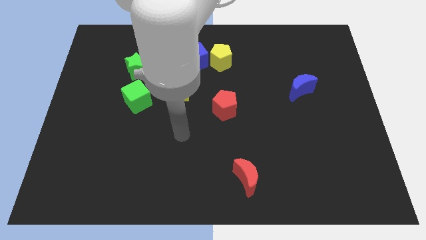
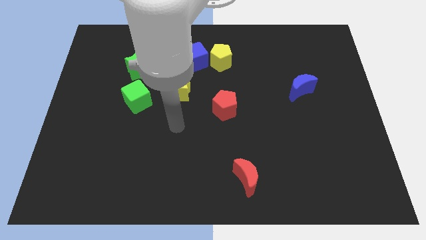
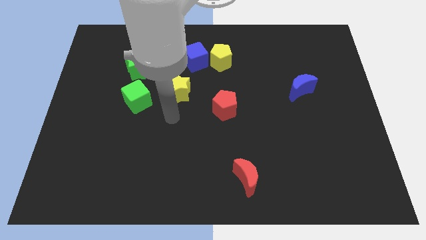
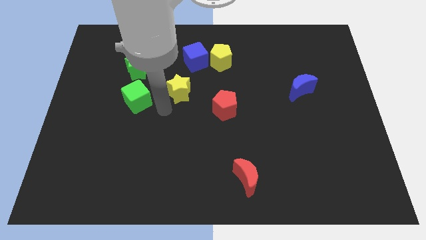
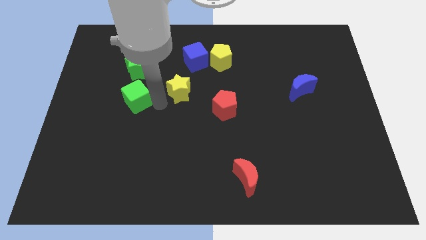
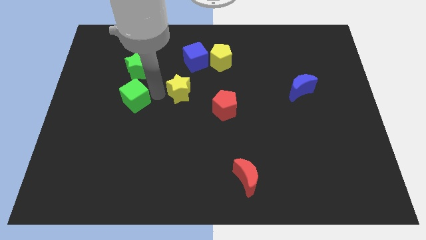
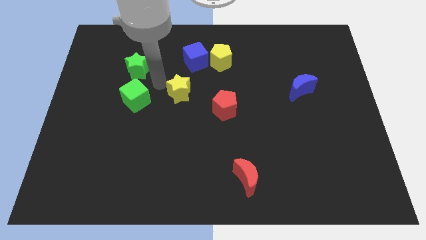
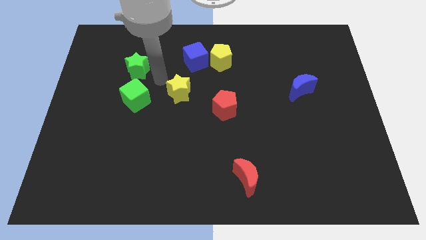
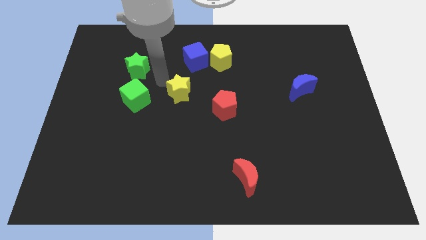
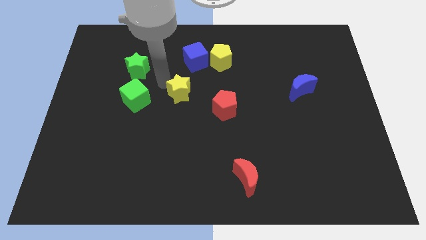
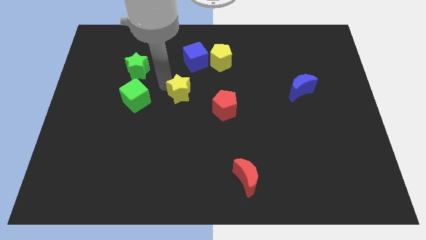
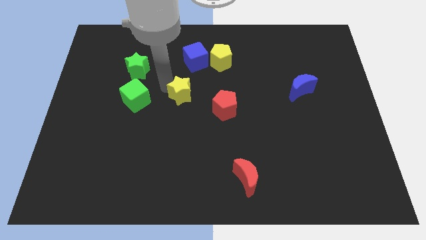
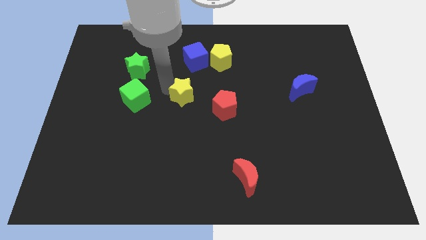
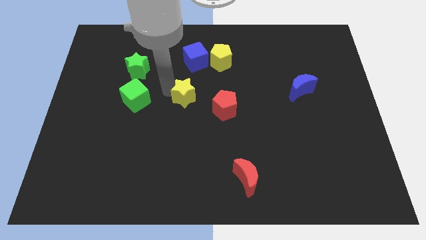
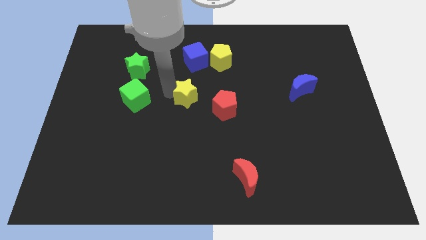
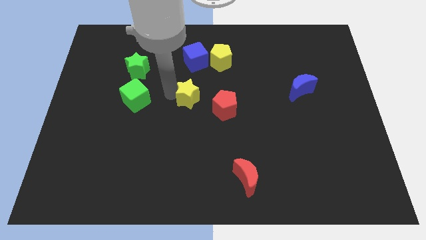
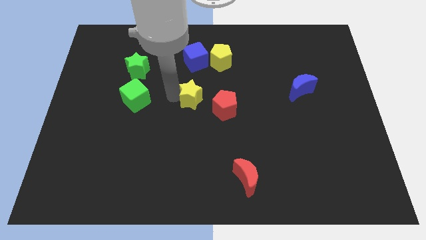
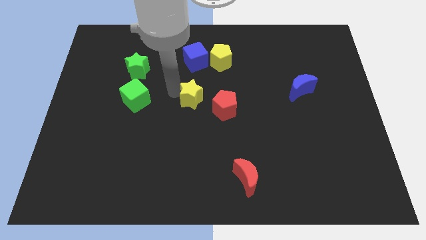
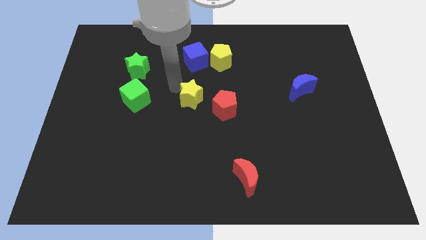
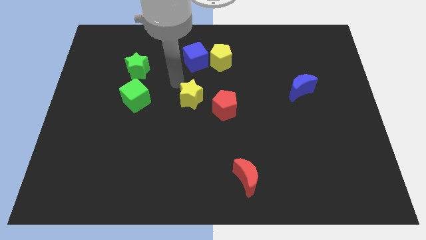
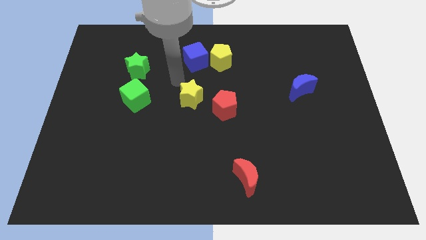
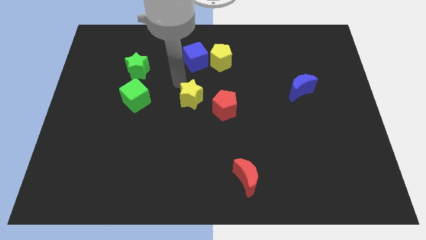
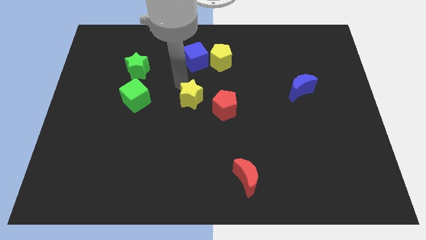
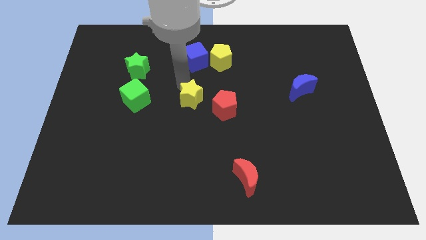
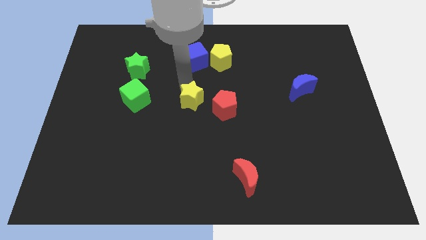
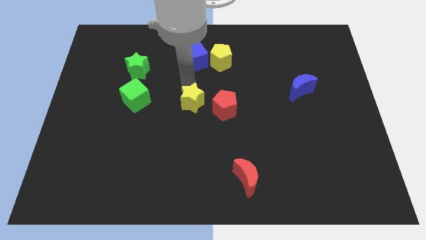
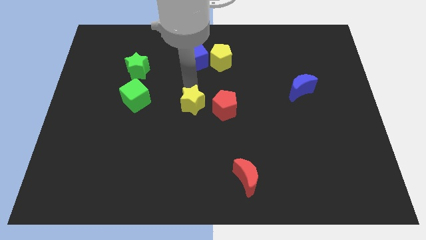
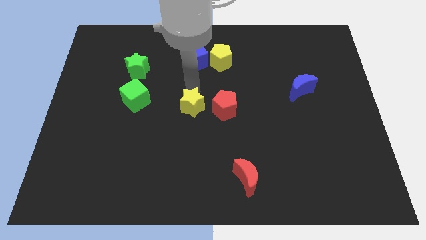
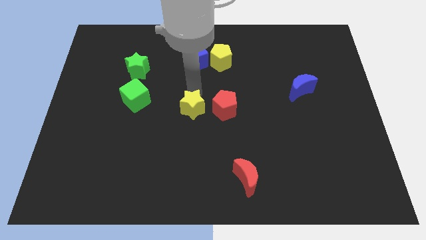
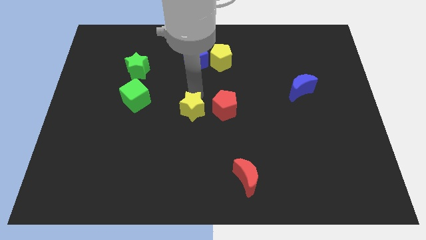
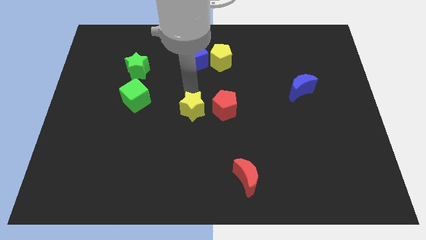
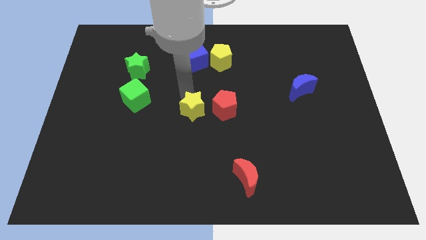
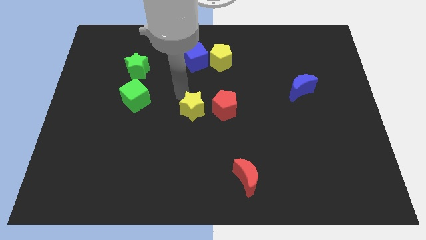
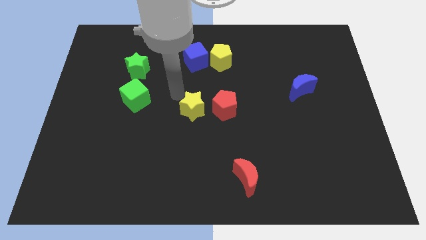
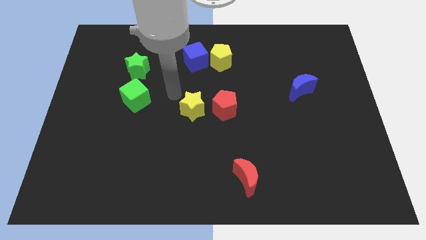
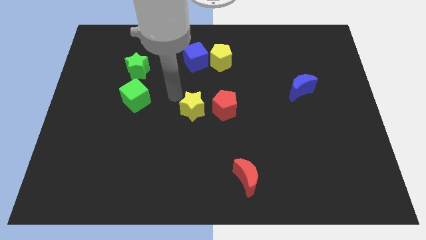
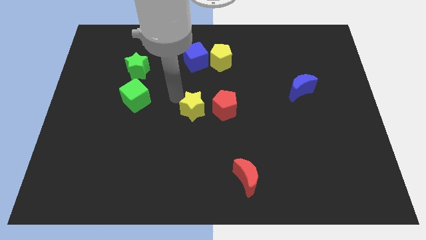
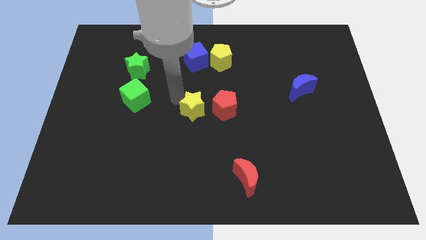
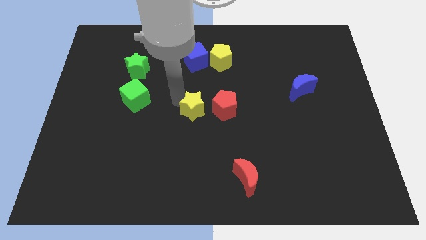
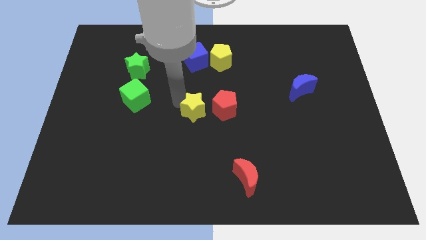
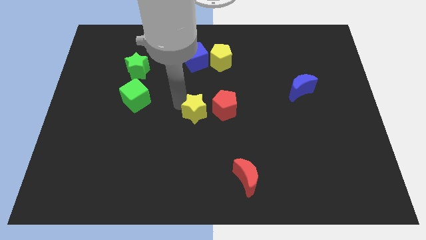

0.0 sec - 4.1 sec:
move the yellow star a little down and then to the right

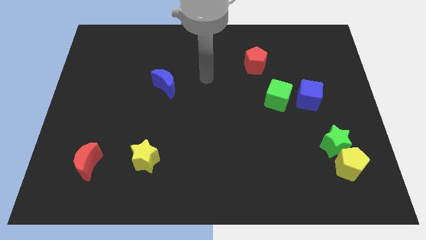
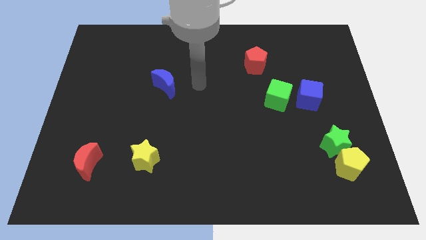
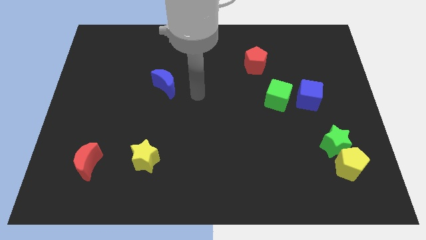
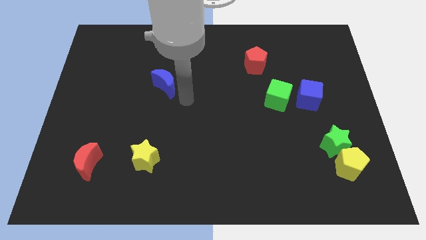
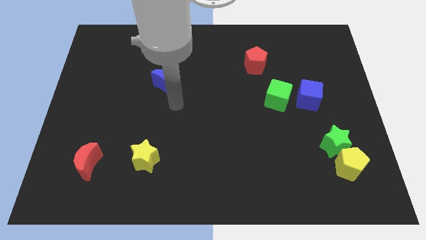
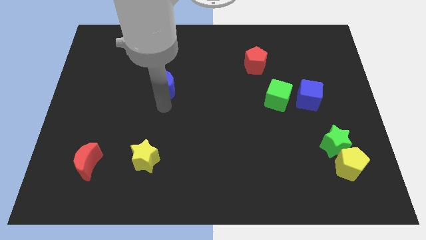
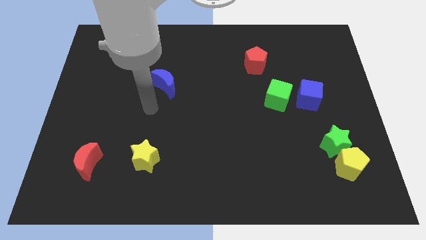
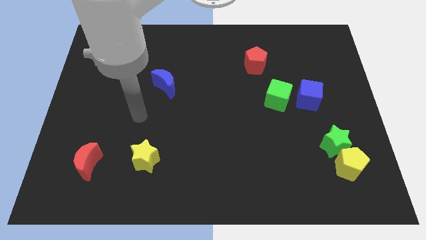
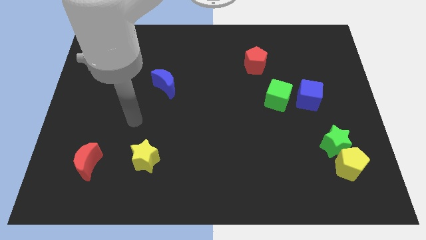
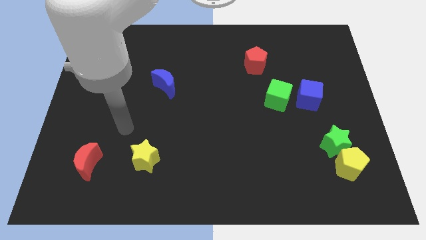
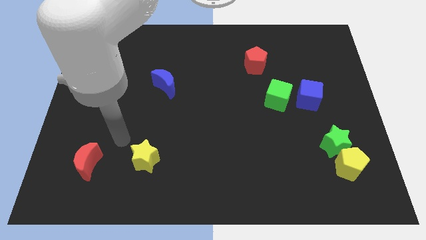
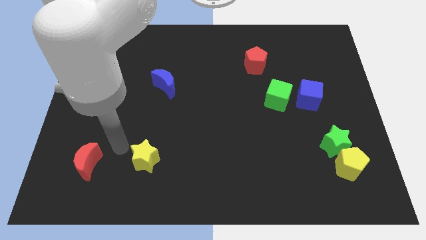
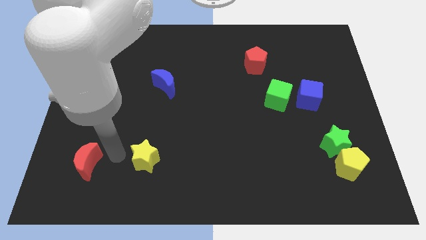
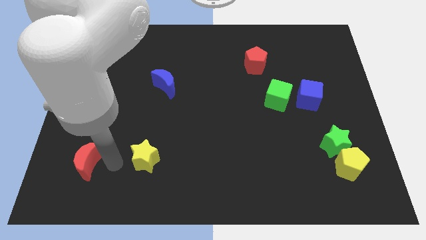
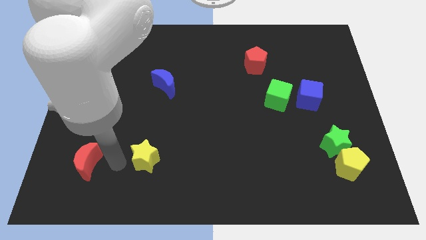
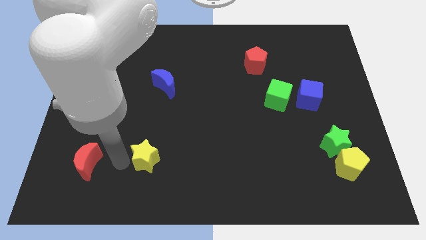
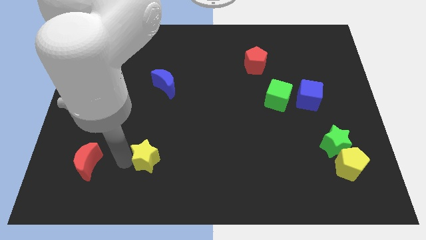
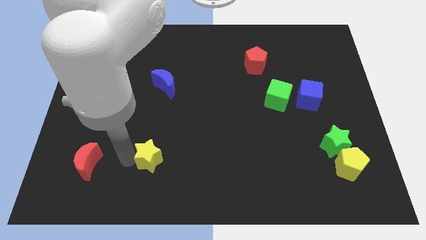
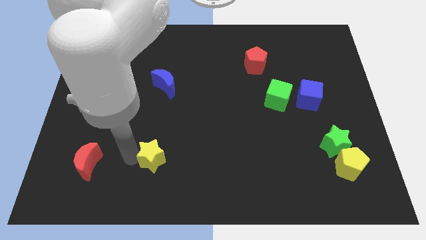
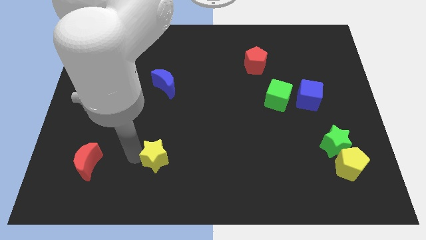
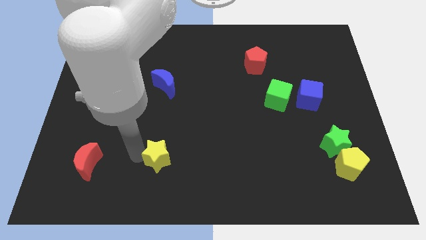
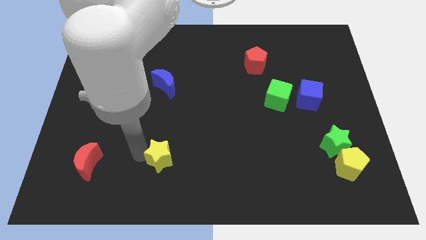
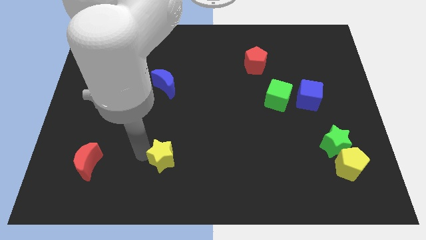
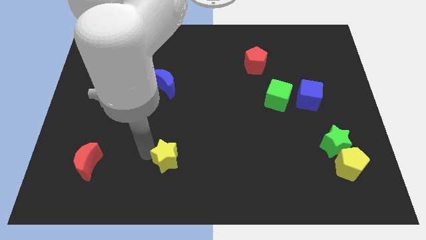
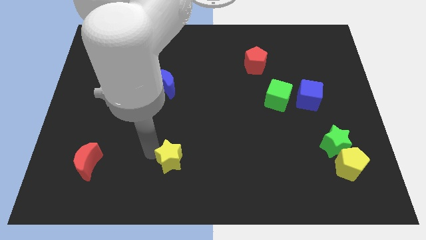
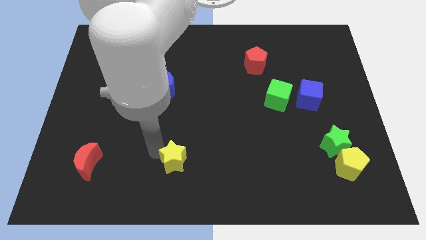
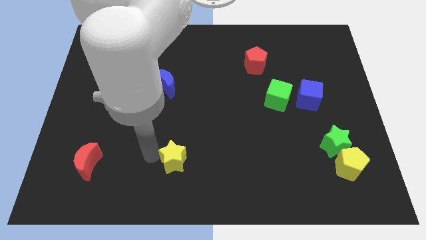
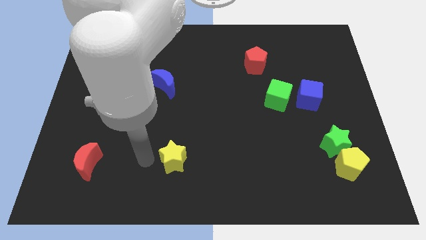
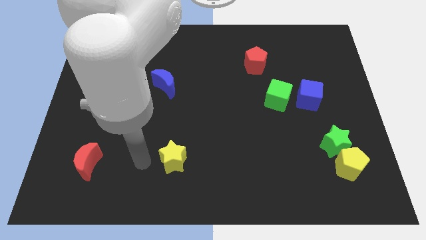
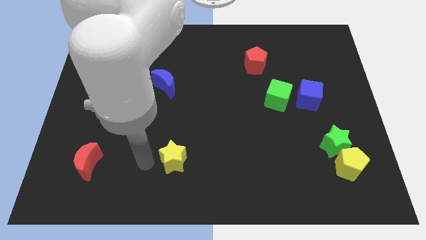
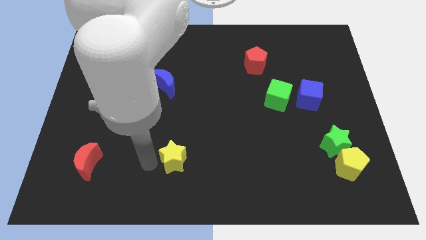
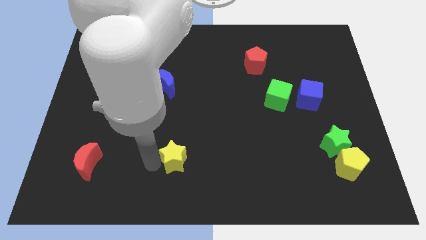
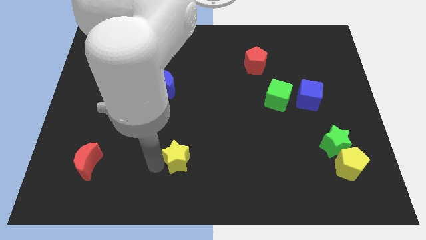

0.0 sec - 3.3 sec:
move the yellow star right somewhat

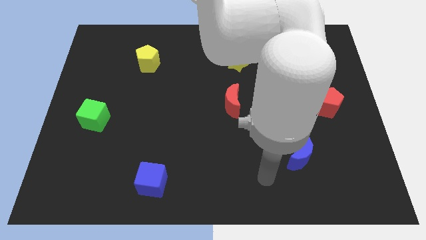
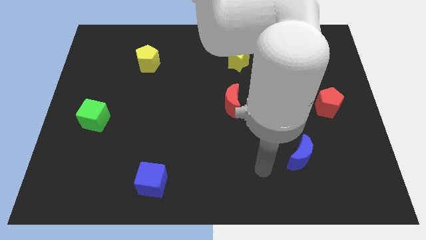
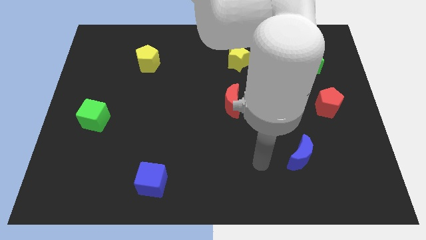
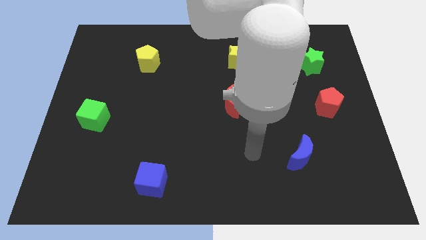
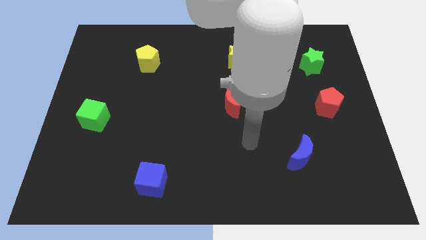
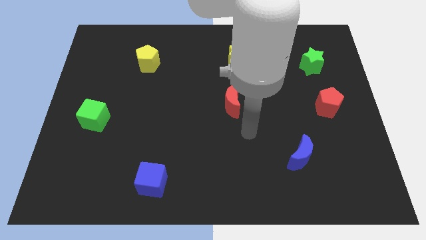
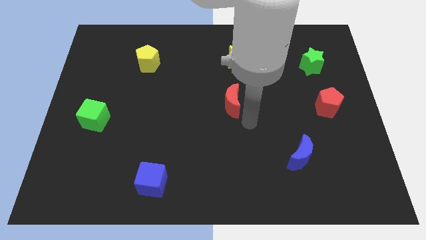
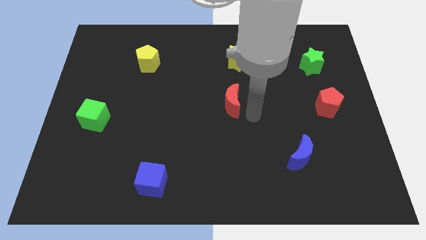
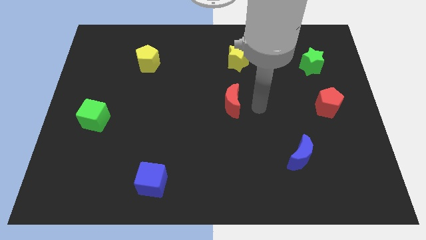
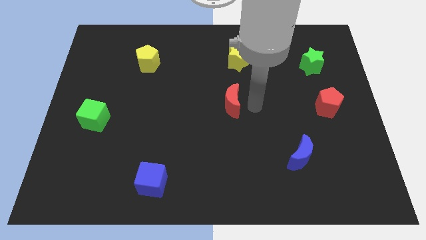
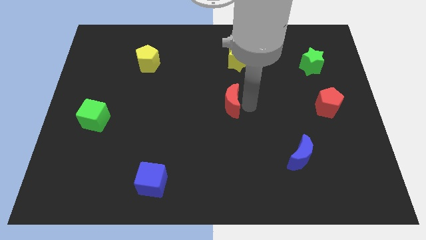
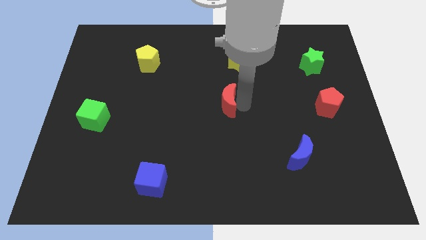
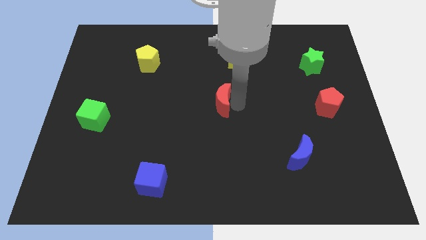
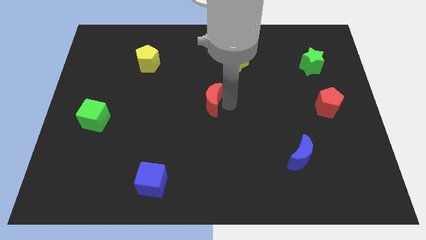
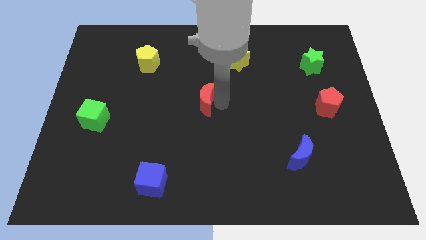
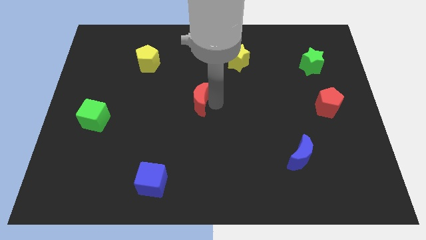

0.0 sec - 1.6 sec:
push the red moon slightly left
